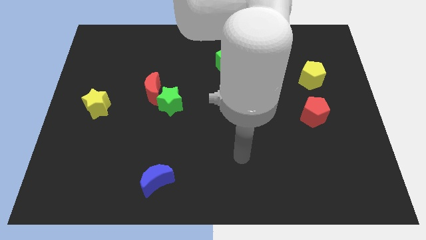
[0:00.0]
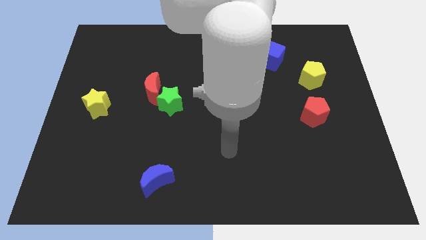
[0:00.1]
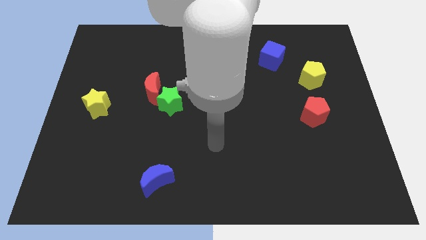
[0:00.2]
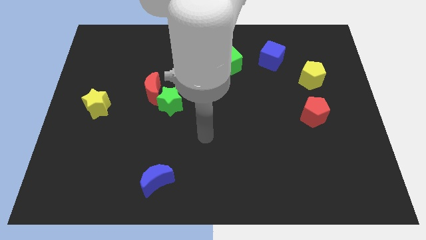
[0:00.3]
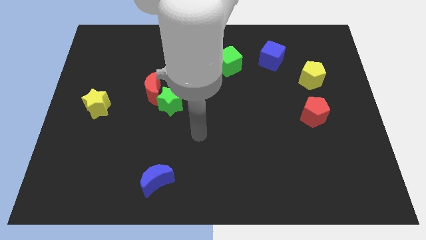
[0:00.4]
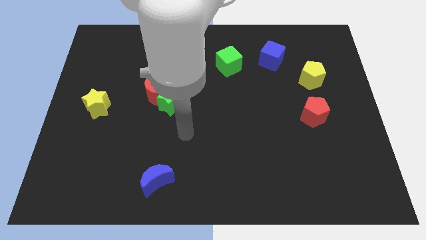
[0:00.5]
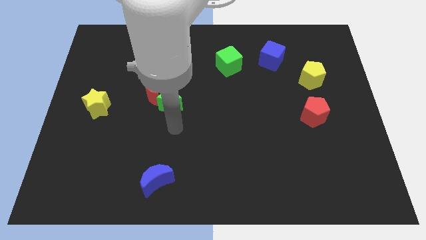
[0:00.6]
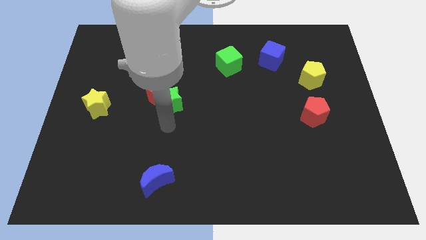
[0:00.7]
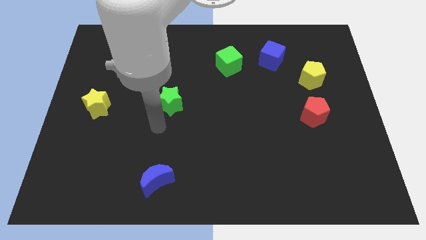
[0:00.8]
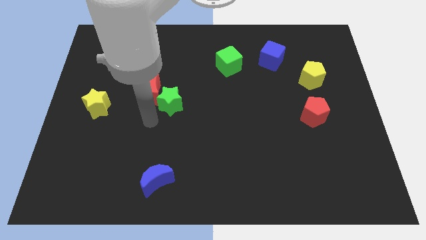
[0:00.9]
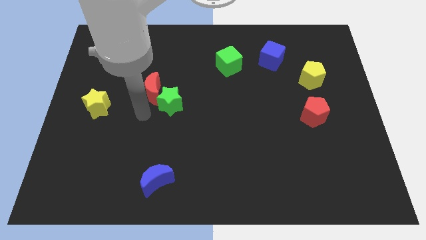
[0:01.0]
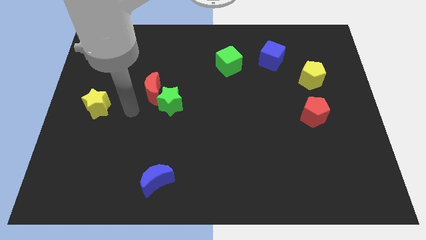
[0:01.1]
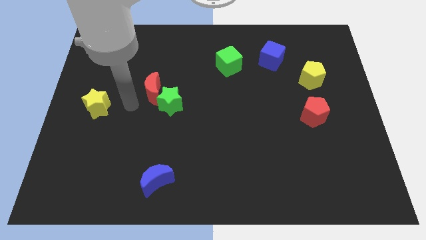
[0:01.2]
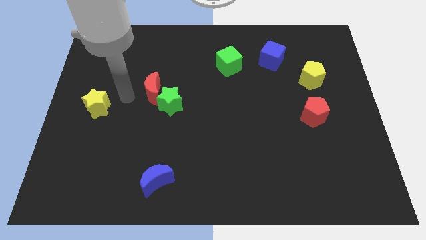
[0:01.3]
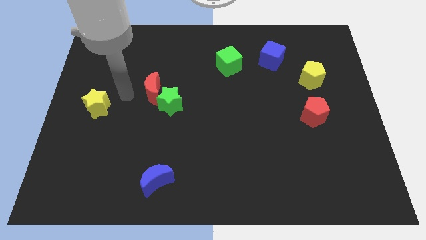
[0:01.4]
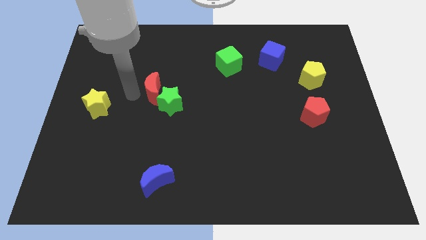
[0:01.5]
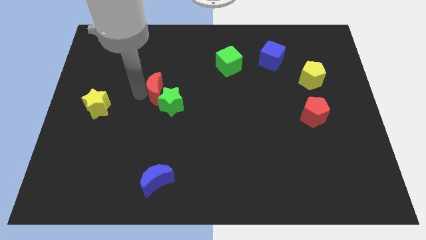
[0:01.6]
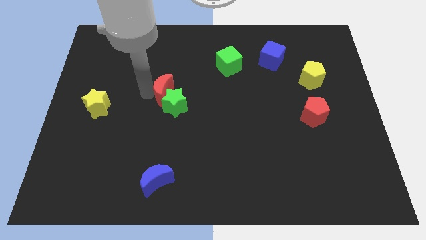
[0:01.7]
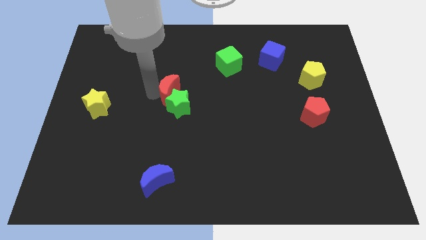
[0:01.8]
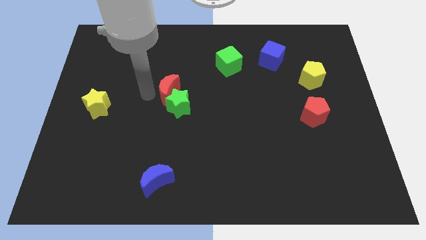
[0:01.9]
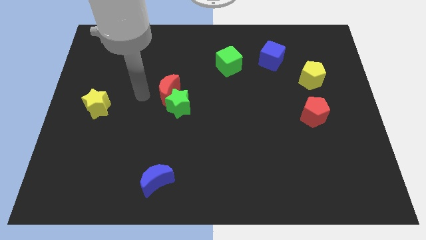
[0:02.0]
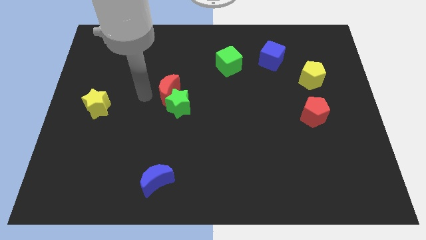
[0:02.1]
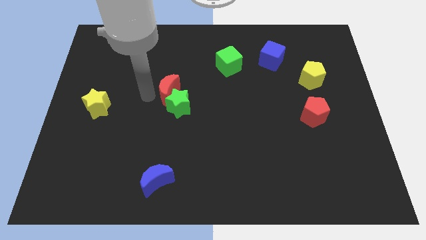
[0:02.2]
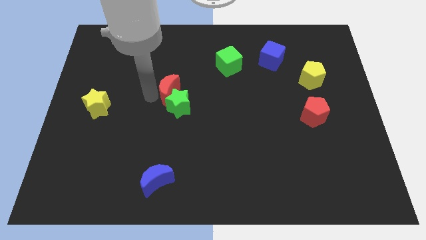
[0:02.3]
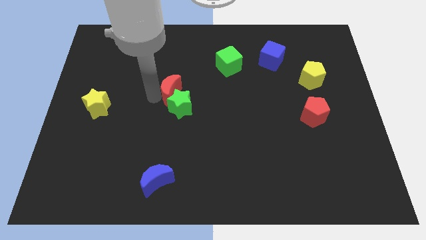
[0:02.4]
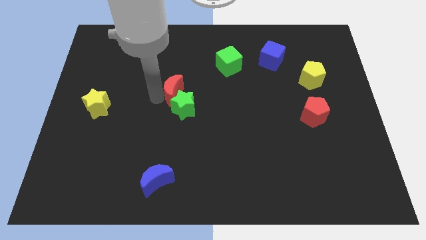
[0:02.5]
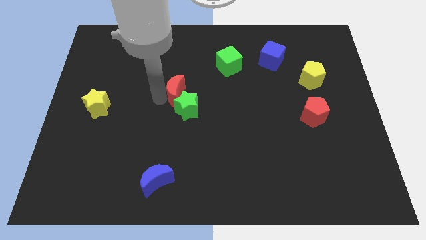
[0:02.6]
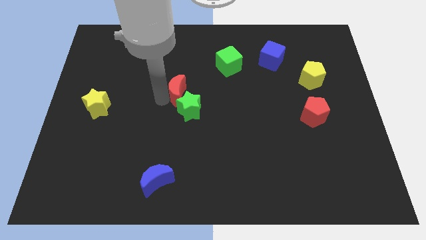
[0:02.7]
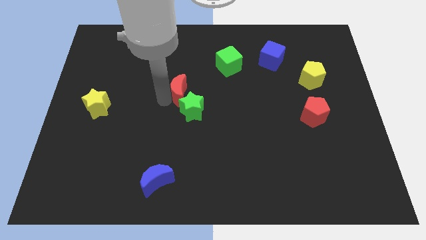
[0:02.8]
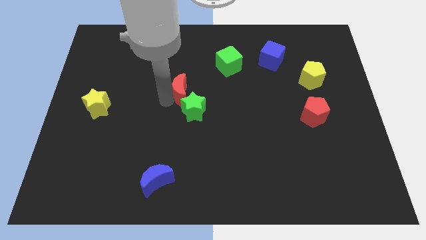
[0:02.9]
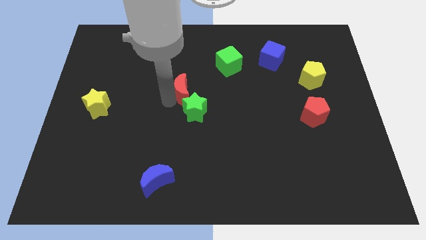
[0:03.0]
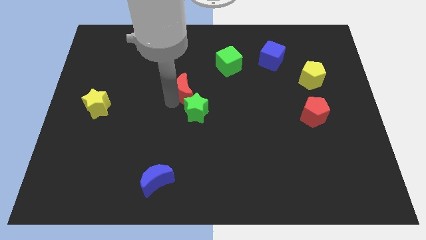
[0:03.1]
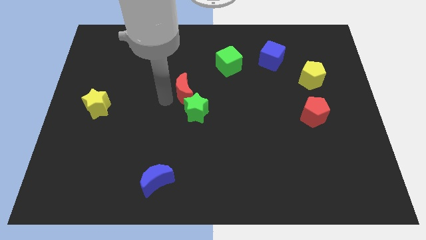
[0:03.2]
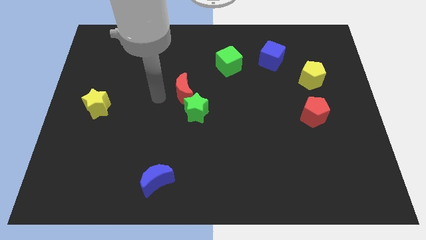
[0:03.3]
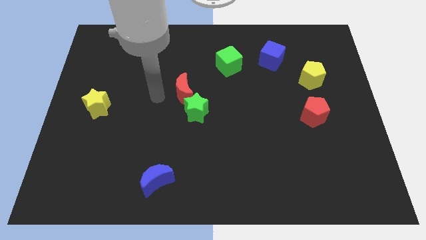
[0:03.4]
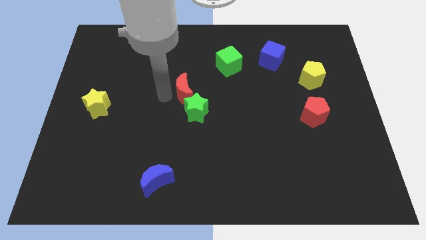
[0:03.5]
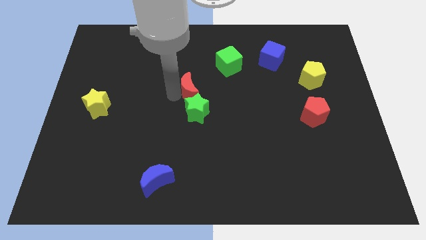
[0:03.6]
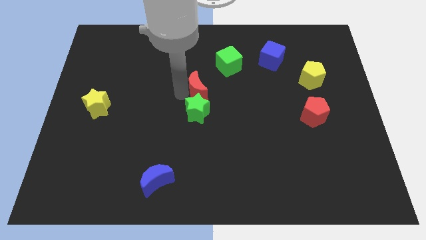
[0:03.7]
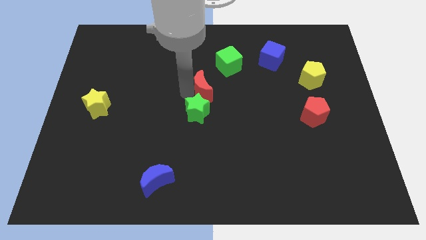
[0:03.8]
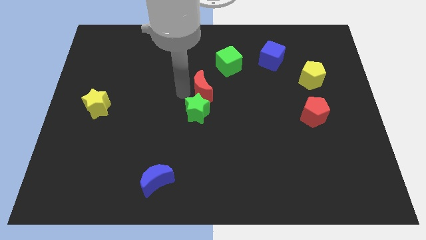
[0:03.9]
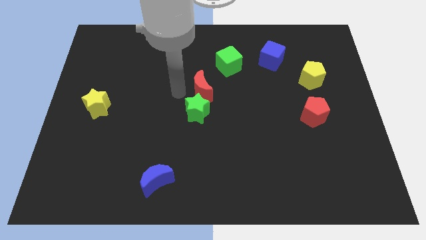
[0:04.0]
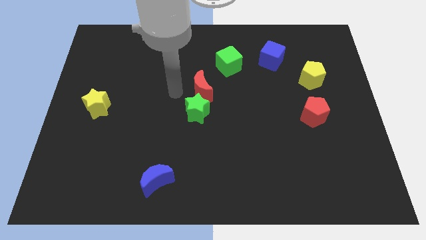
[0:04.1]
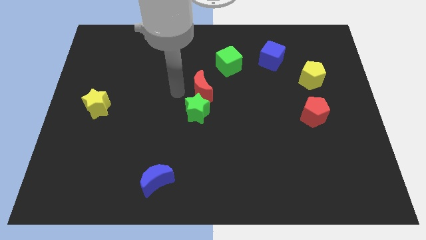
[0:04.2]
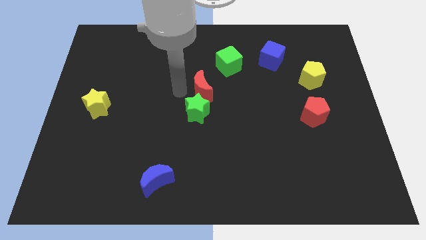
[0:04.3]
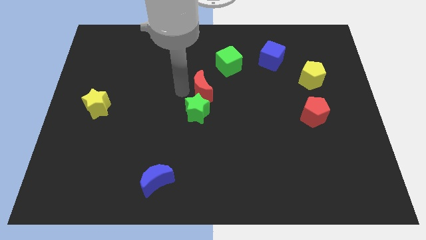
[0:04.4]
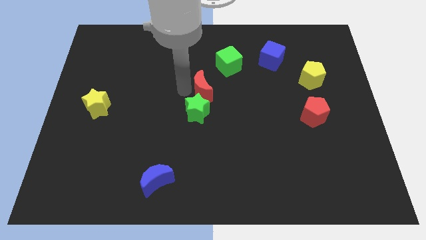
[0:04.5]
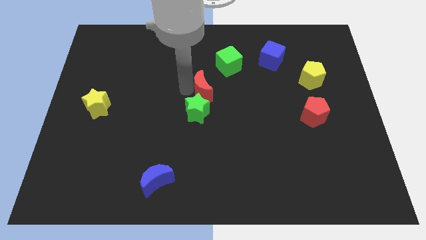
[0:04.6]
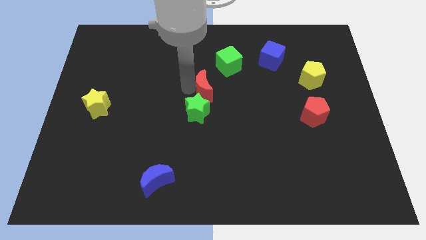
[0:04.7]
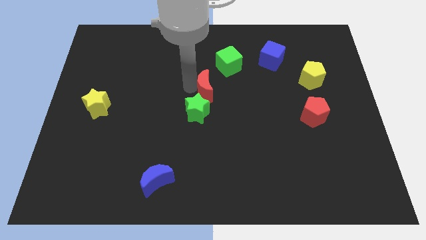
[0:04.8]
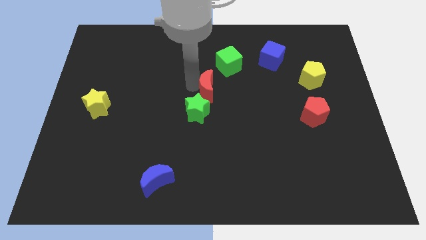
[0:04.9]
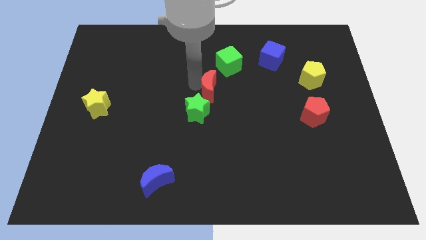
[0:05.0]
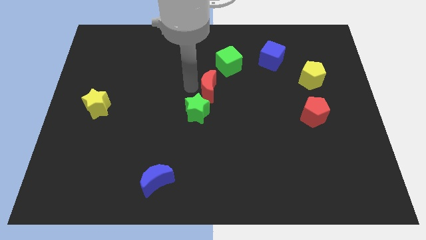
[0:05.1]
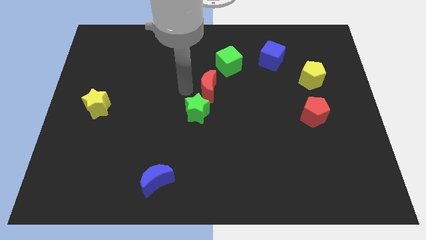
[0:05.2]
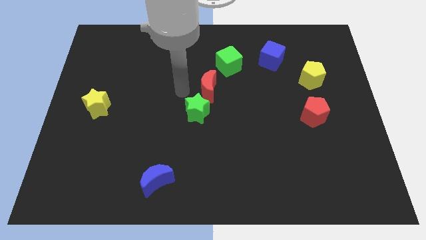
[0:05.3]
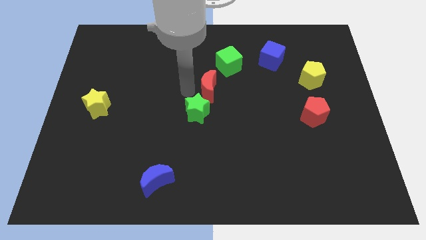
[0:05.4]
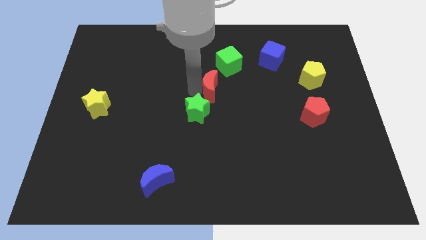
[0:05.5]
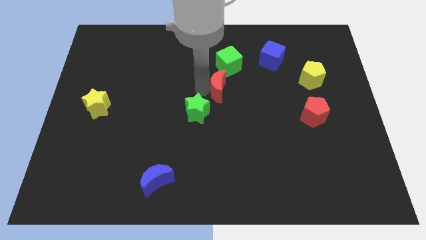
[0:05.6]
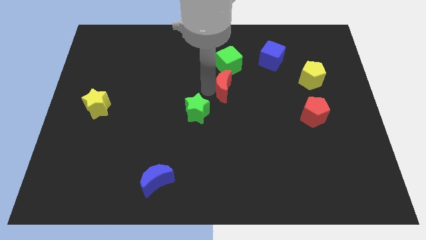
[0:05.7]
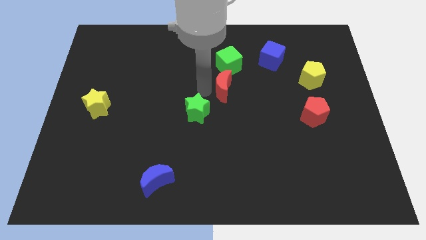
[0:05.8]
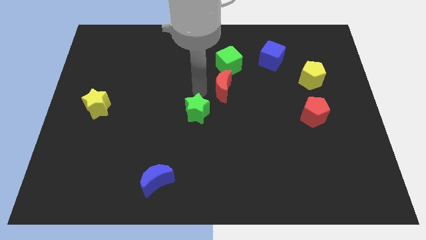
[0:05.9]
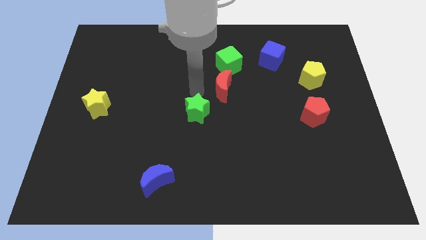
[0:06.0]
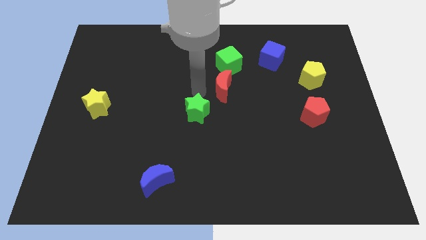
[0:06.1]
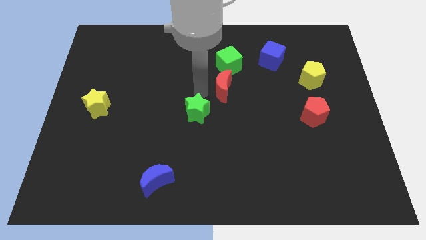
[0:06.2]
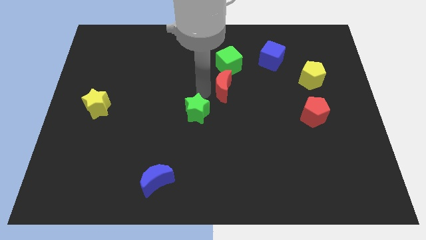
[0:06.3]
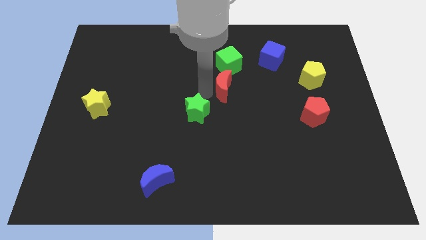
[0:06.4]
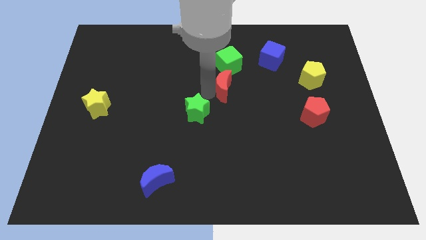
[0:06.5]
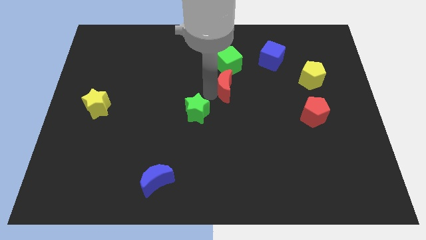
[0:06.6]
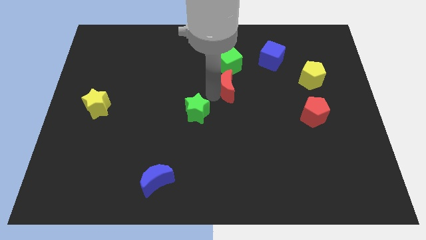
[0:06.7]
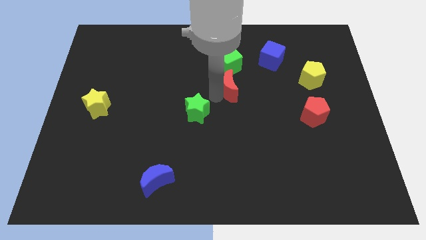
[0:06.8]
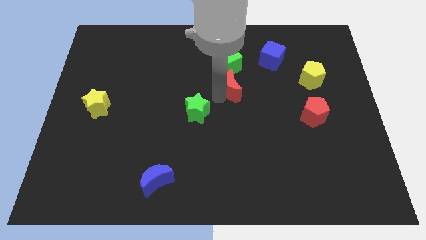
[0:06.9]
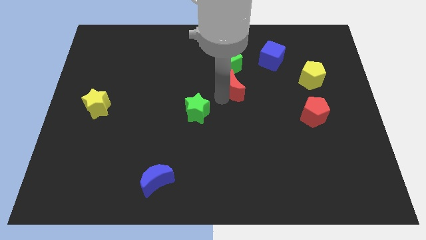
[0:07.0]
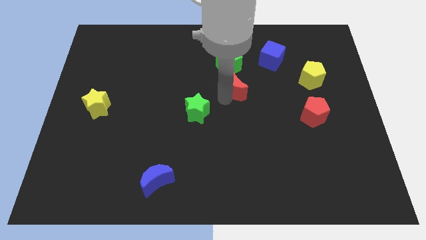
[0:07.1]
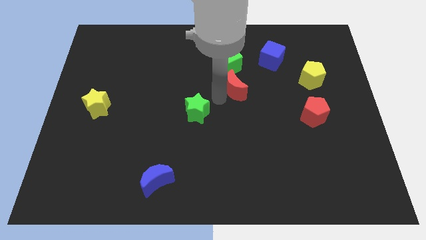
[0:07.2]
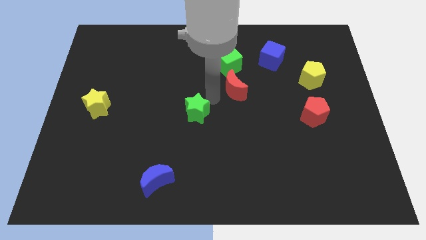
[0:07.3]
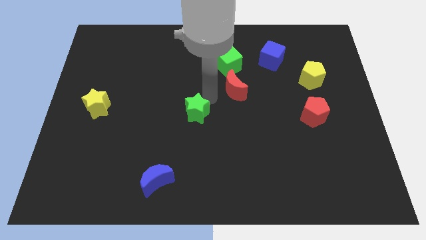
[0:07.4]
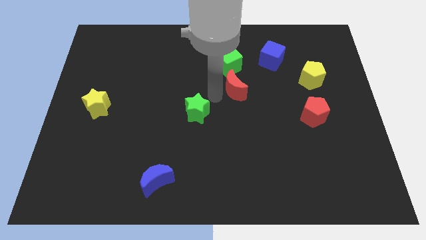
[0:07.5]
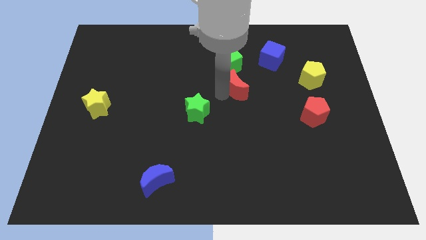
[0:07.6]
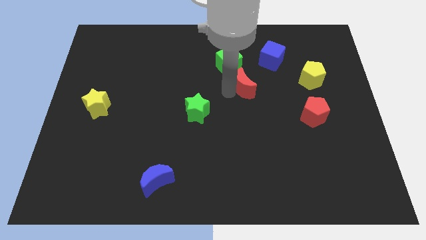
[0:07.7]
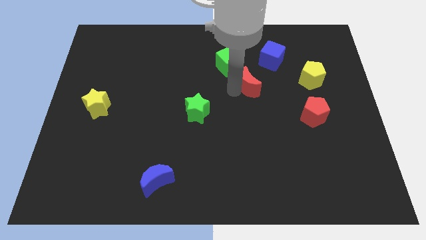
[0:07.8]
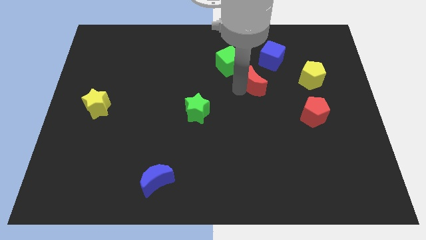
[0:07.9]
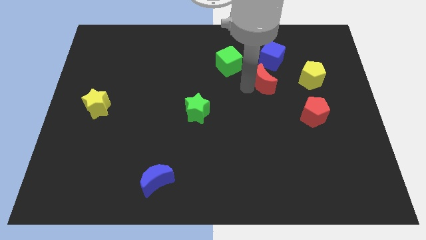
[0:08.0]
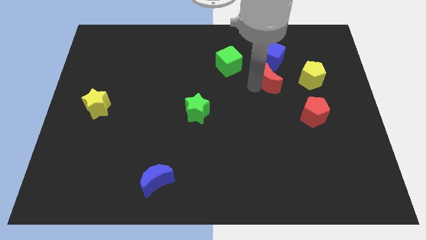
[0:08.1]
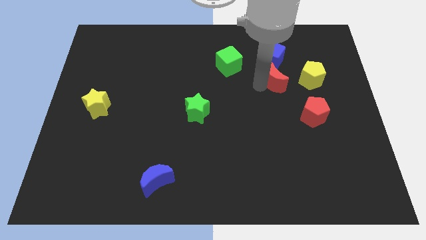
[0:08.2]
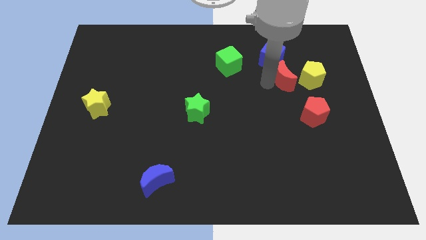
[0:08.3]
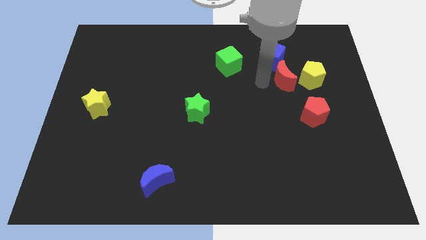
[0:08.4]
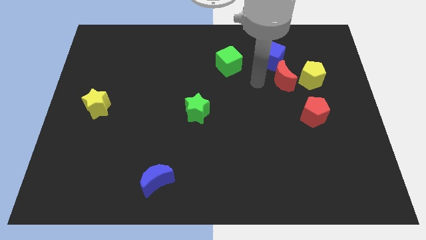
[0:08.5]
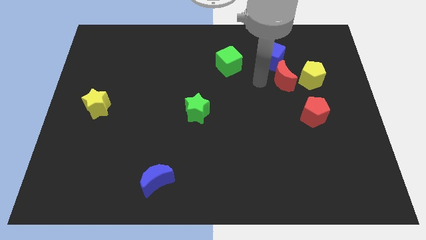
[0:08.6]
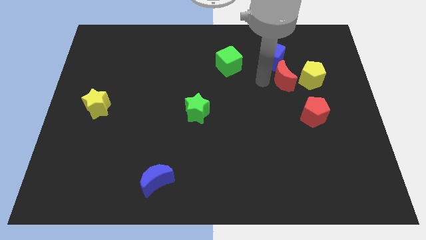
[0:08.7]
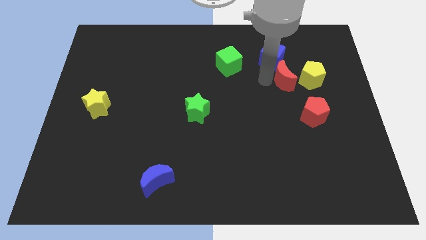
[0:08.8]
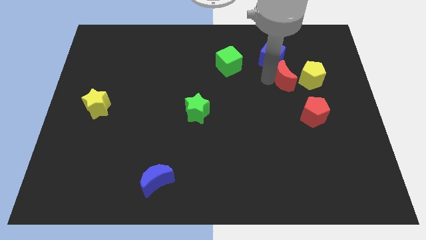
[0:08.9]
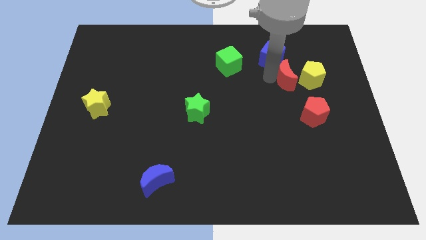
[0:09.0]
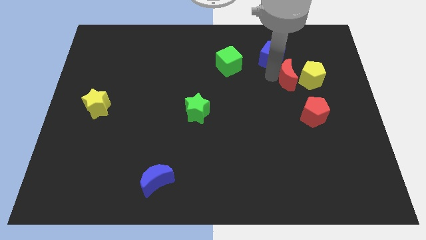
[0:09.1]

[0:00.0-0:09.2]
slide the red moon next to the yellow pentagon
